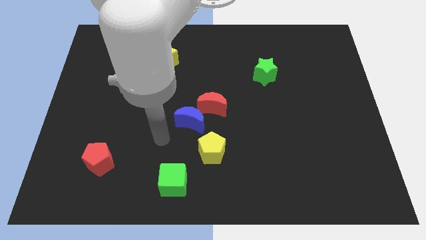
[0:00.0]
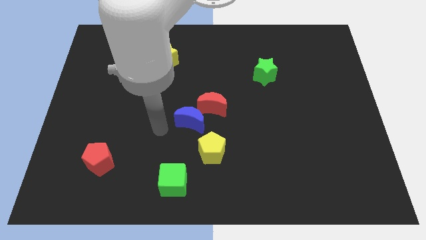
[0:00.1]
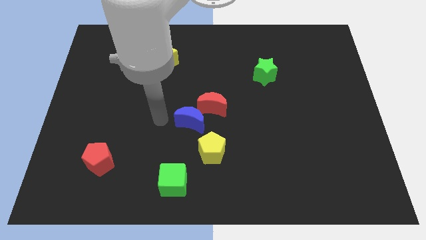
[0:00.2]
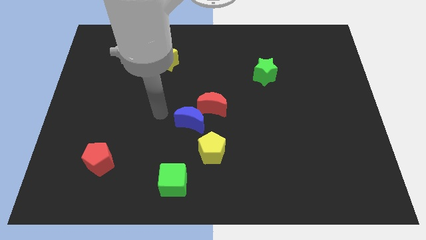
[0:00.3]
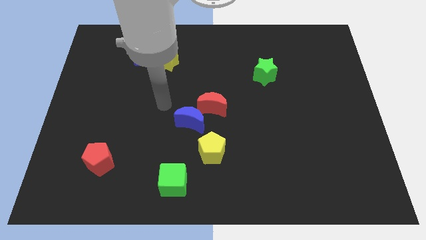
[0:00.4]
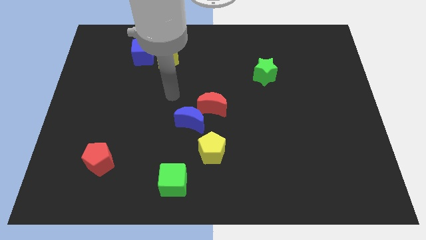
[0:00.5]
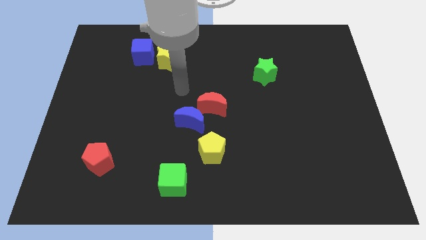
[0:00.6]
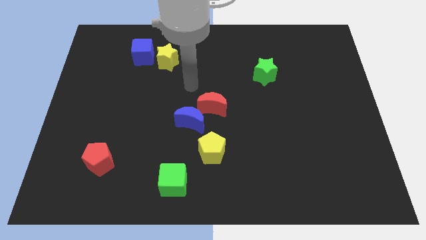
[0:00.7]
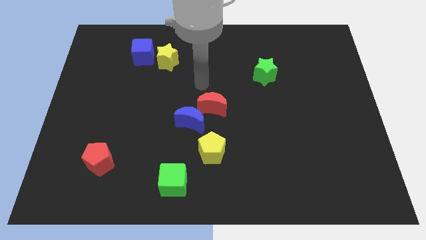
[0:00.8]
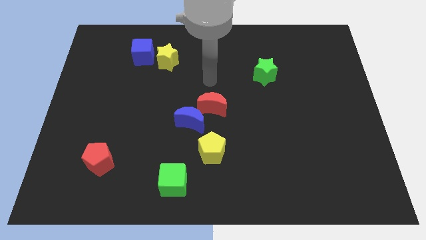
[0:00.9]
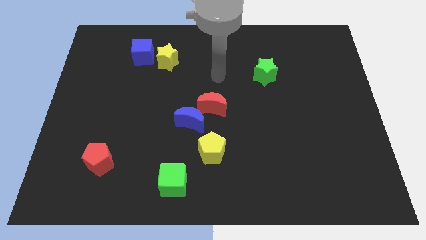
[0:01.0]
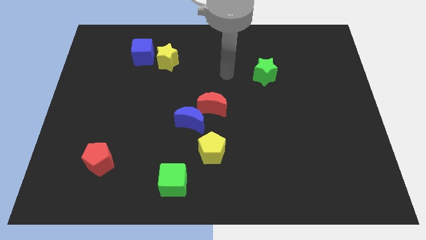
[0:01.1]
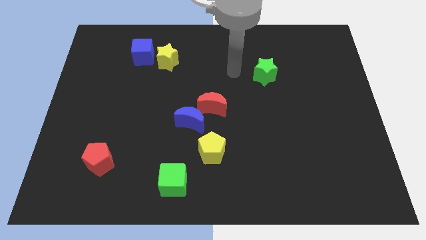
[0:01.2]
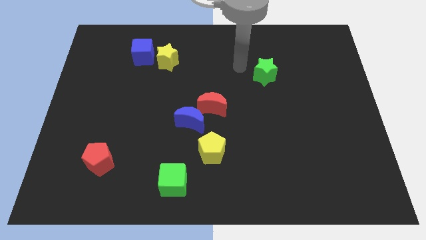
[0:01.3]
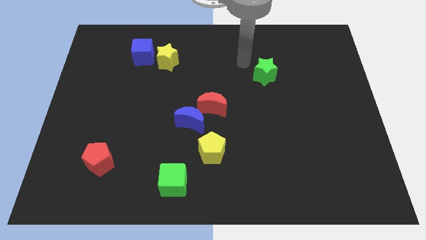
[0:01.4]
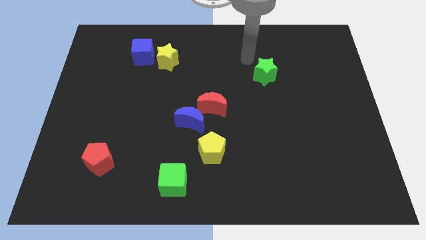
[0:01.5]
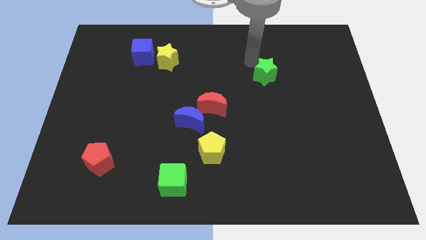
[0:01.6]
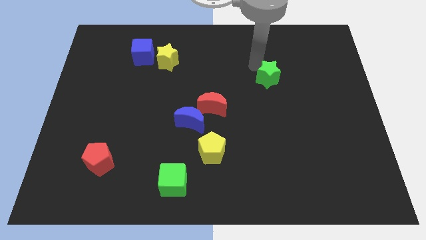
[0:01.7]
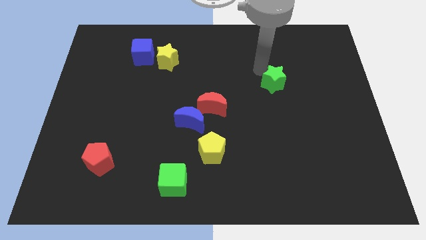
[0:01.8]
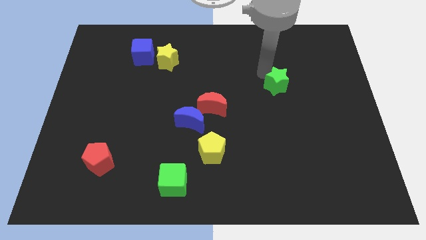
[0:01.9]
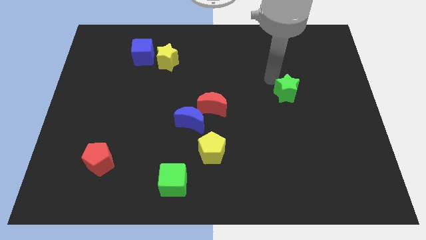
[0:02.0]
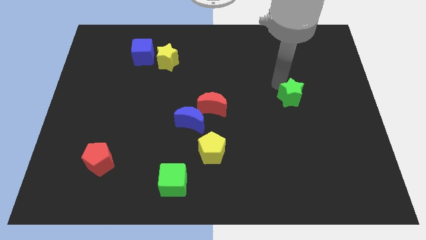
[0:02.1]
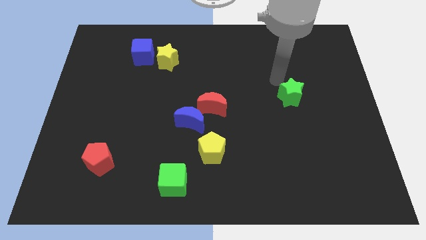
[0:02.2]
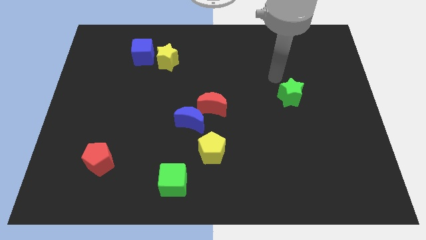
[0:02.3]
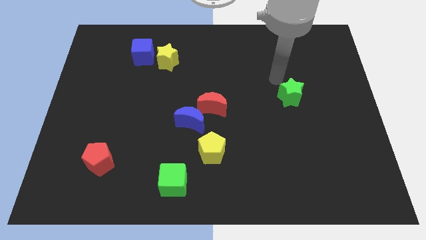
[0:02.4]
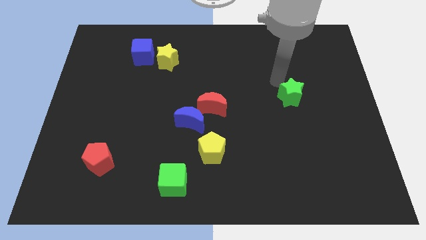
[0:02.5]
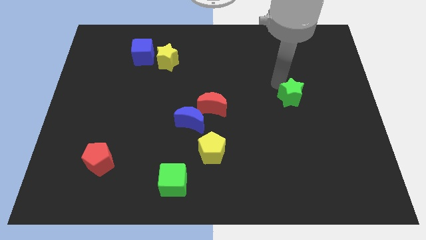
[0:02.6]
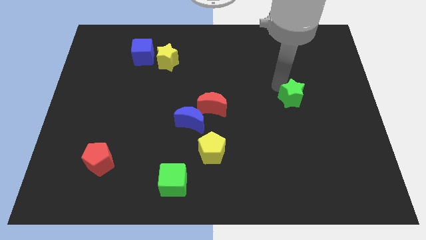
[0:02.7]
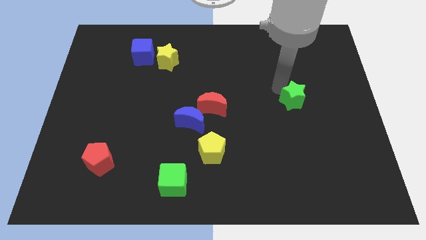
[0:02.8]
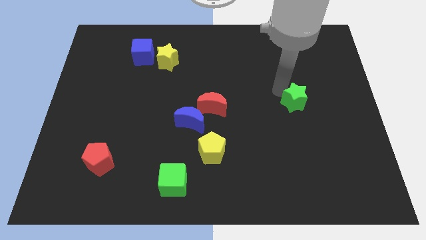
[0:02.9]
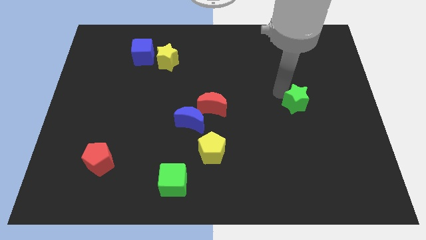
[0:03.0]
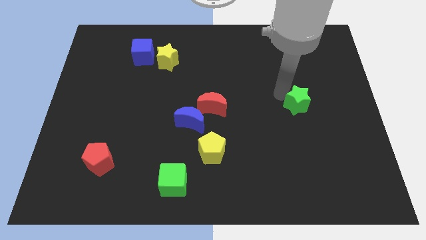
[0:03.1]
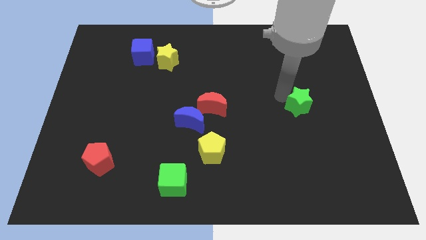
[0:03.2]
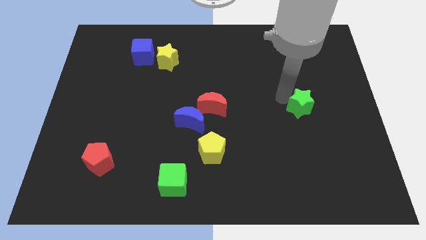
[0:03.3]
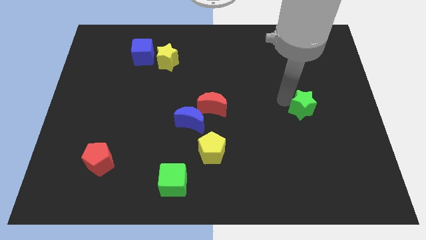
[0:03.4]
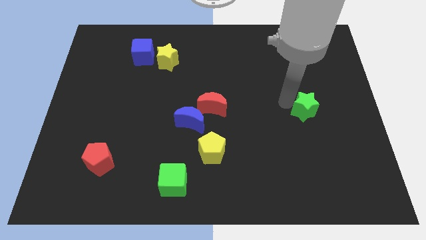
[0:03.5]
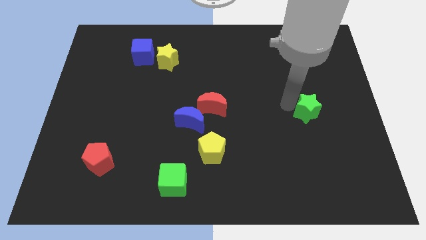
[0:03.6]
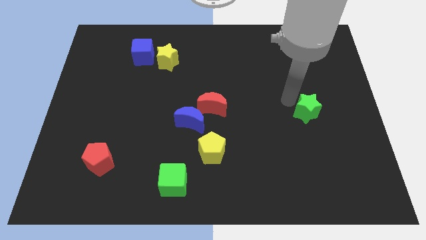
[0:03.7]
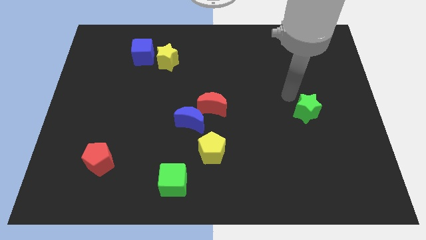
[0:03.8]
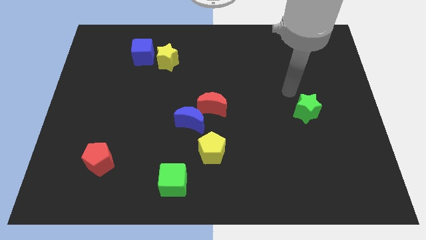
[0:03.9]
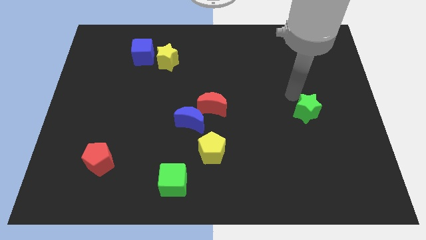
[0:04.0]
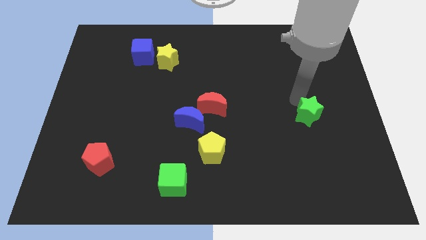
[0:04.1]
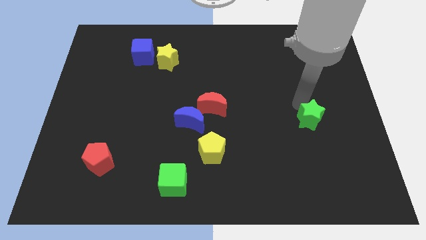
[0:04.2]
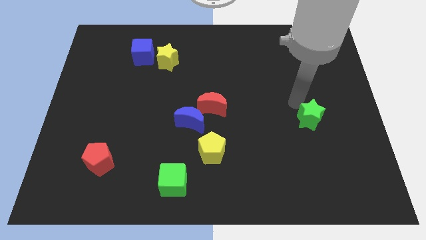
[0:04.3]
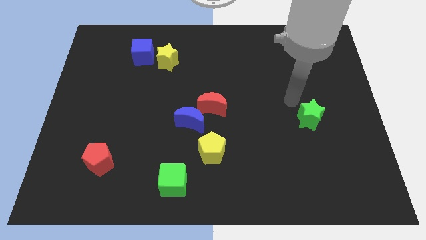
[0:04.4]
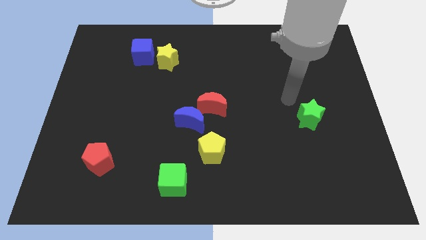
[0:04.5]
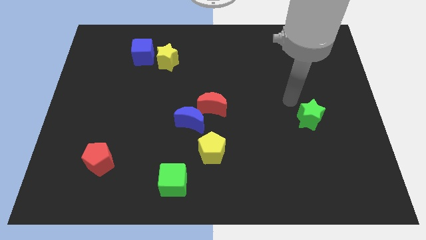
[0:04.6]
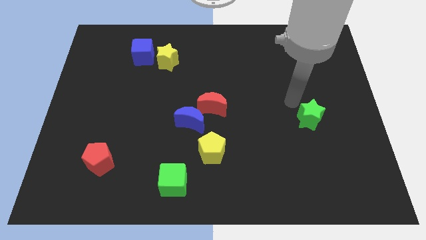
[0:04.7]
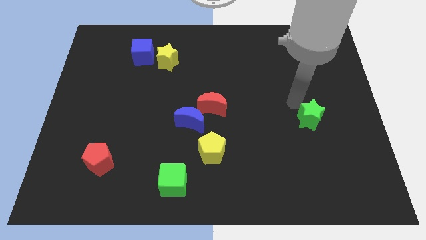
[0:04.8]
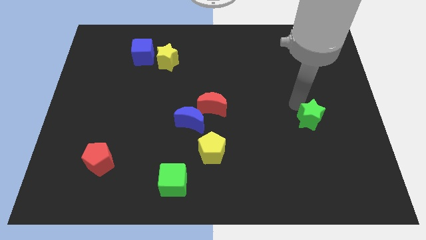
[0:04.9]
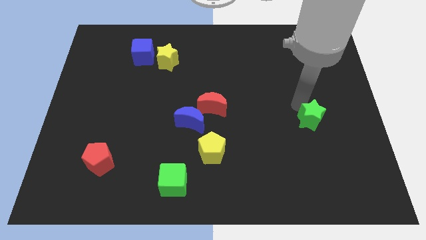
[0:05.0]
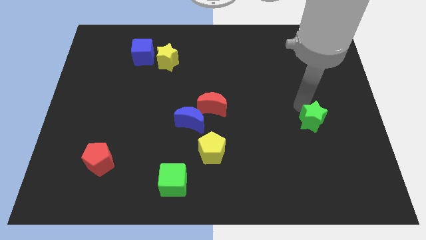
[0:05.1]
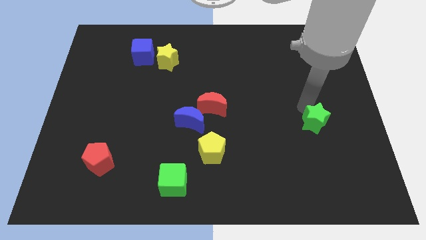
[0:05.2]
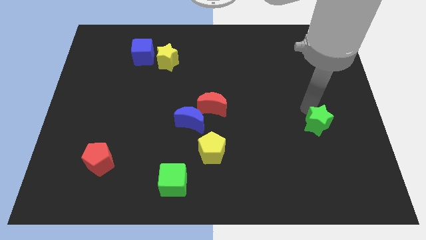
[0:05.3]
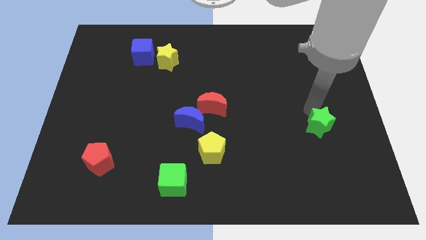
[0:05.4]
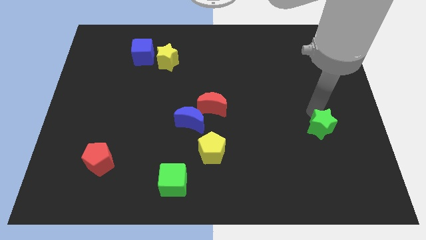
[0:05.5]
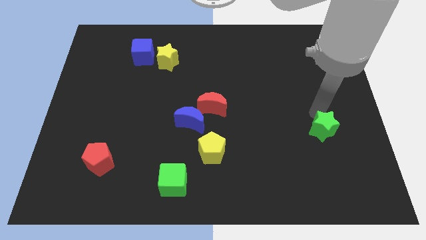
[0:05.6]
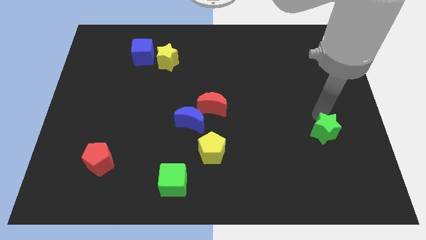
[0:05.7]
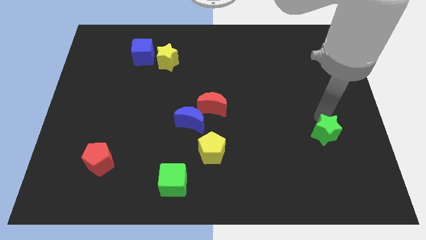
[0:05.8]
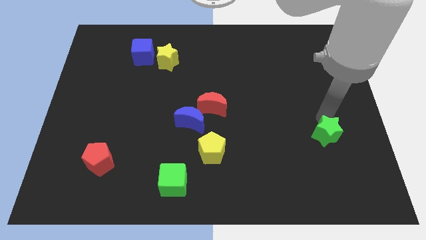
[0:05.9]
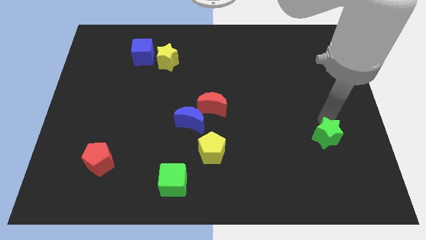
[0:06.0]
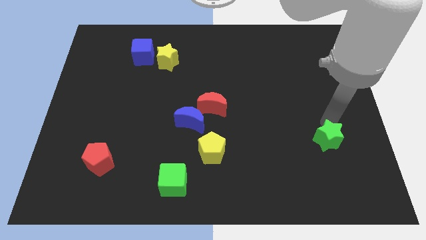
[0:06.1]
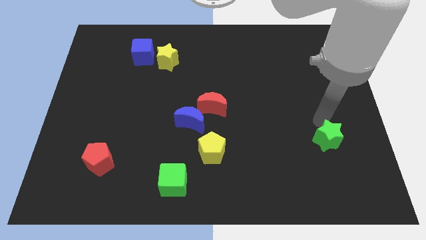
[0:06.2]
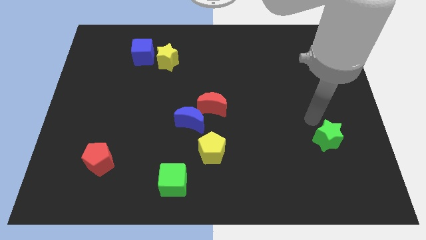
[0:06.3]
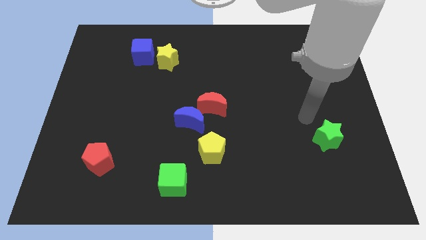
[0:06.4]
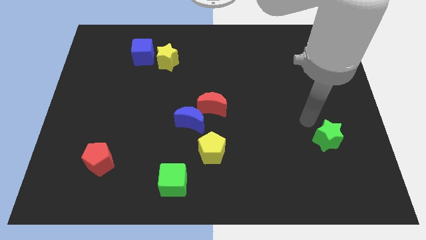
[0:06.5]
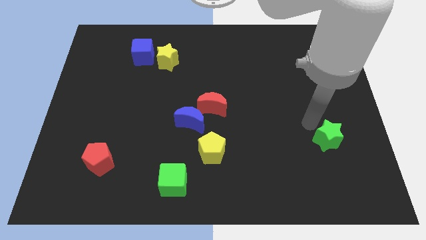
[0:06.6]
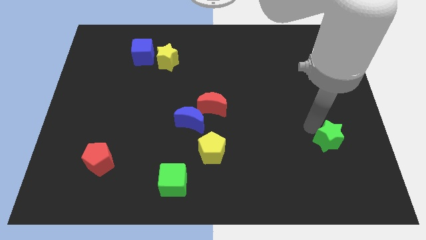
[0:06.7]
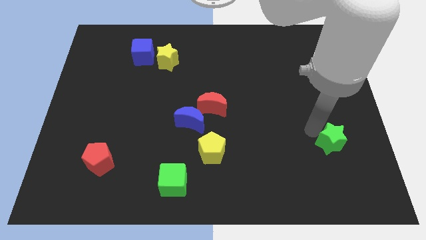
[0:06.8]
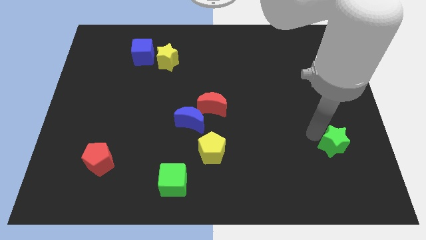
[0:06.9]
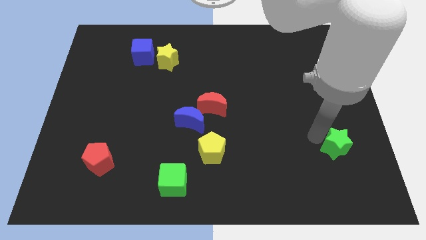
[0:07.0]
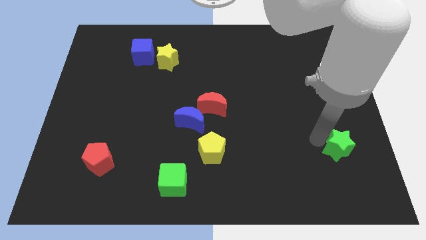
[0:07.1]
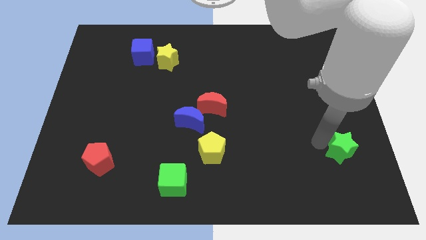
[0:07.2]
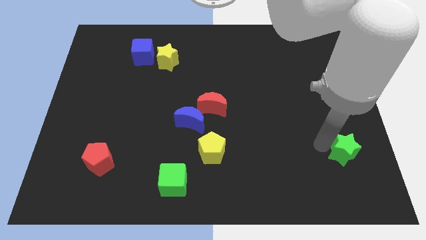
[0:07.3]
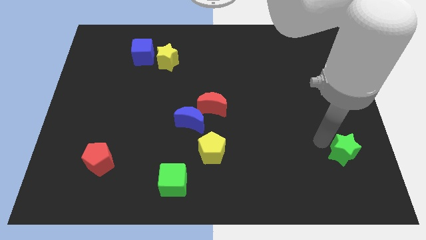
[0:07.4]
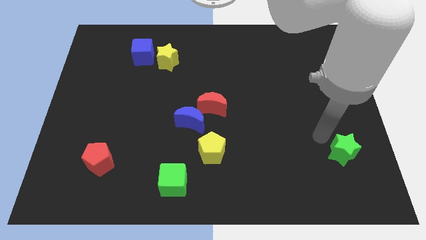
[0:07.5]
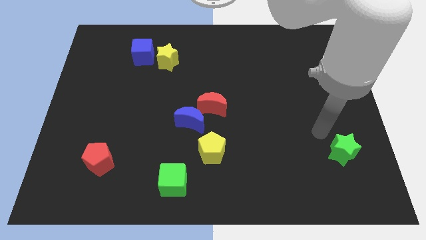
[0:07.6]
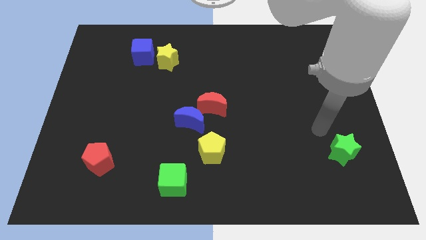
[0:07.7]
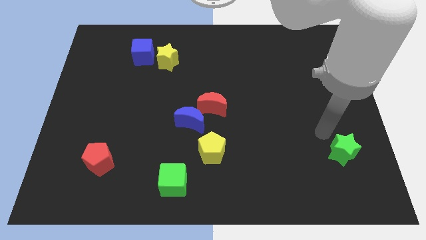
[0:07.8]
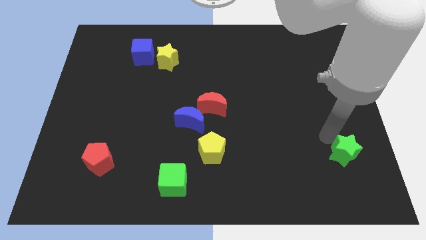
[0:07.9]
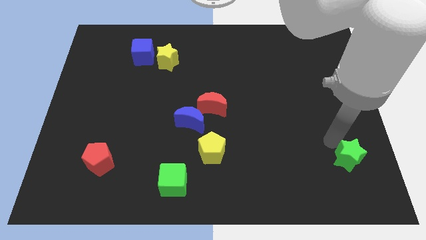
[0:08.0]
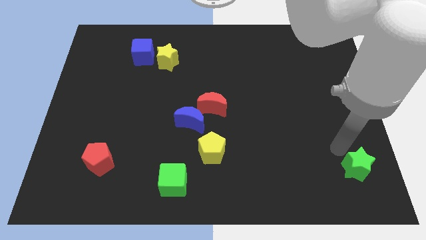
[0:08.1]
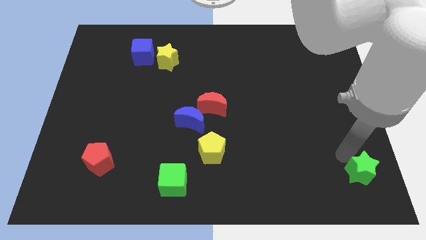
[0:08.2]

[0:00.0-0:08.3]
push the green star to the bottom right corner
